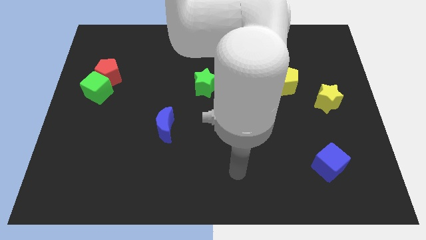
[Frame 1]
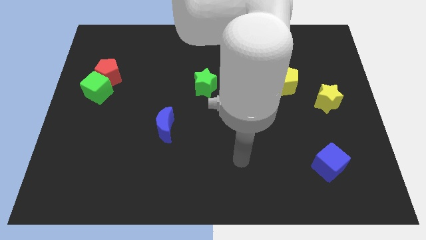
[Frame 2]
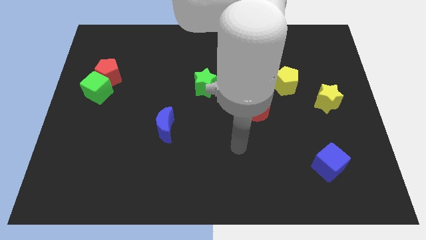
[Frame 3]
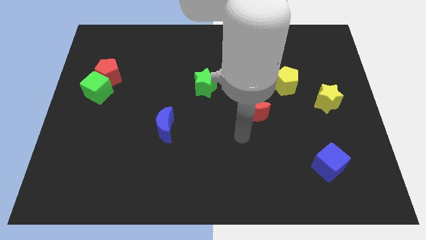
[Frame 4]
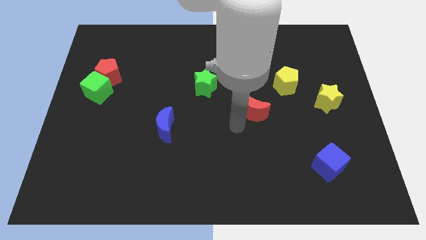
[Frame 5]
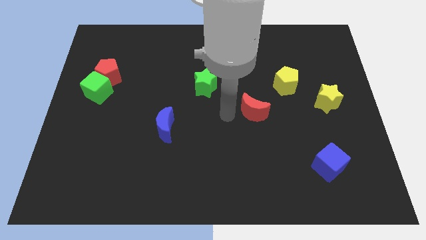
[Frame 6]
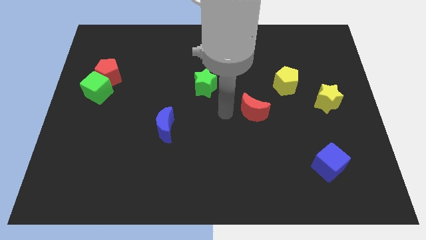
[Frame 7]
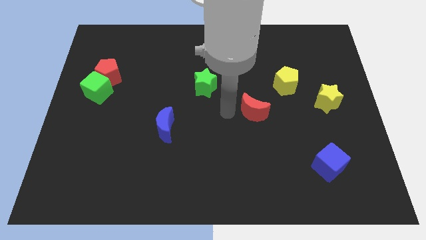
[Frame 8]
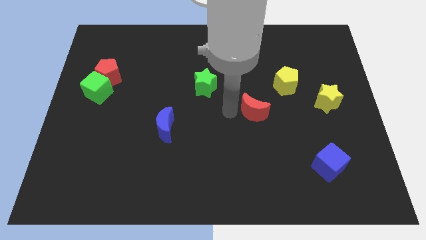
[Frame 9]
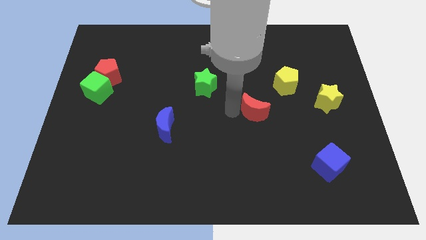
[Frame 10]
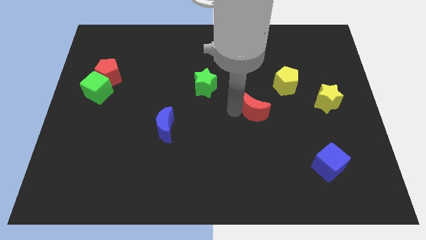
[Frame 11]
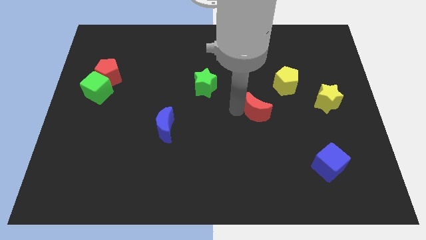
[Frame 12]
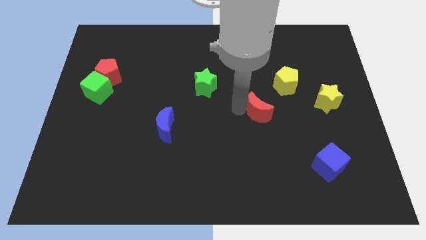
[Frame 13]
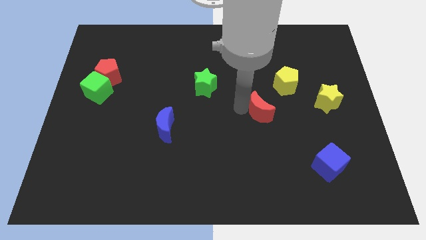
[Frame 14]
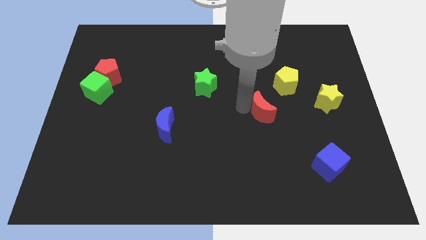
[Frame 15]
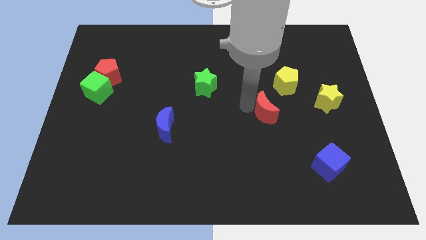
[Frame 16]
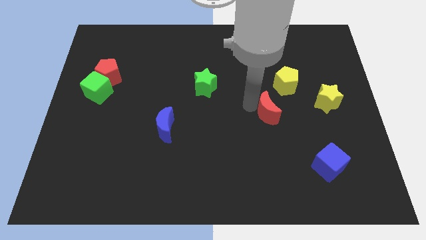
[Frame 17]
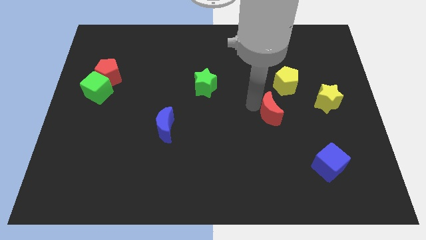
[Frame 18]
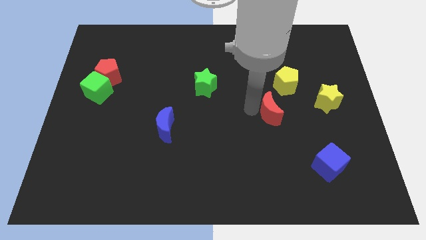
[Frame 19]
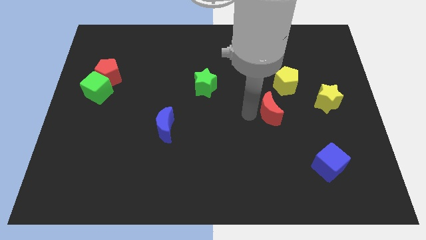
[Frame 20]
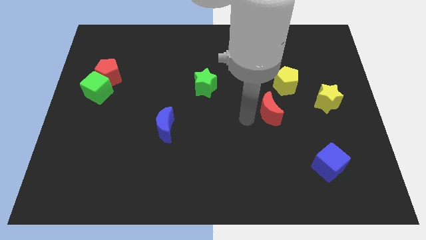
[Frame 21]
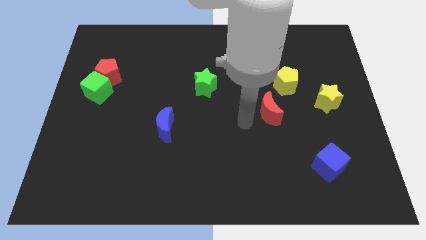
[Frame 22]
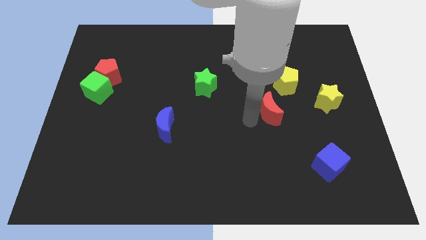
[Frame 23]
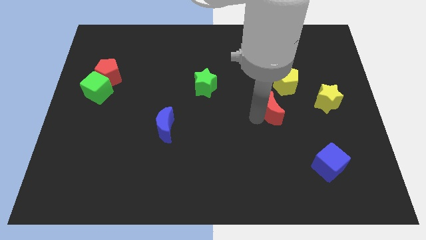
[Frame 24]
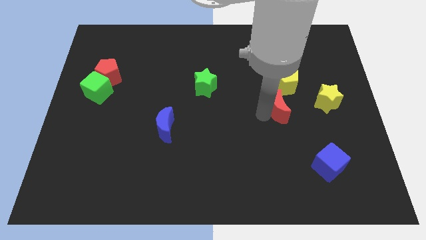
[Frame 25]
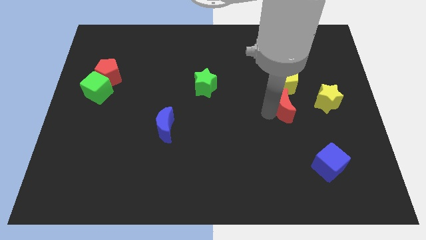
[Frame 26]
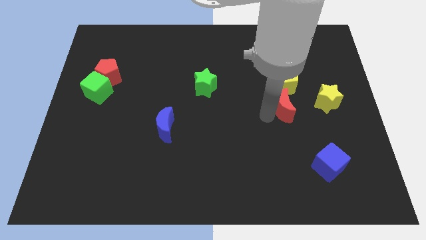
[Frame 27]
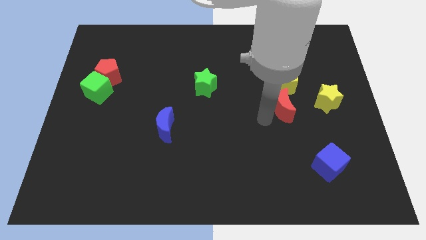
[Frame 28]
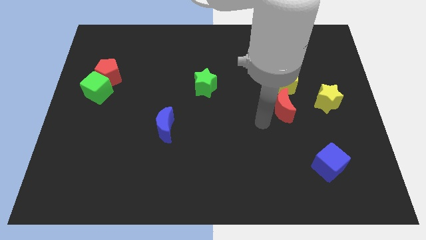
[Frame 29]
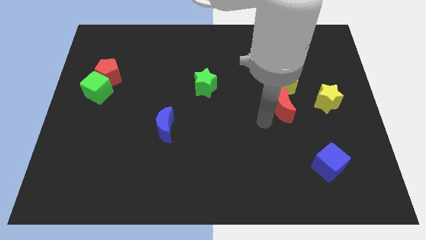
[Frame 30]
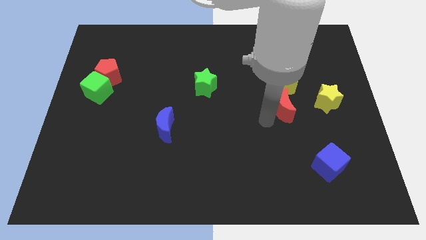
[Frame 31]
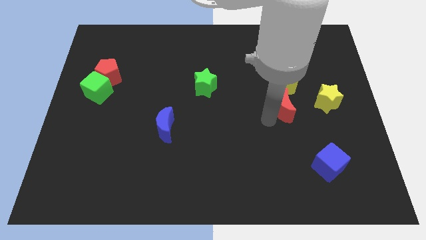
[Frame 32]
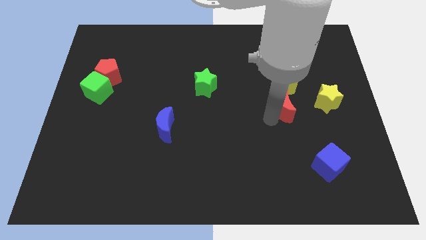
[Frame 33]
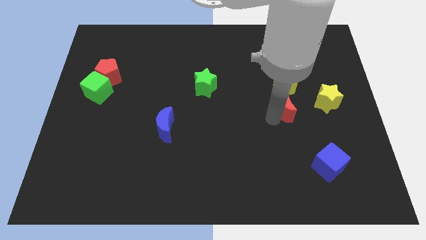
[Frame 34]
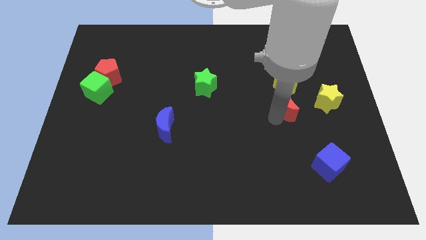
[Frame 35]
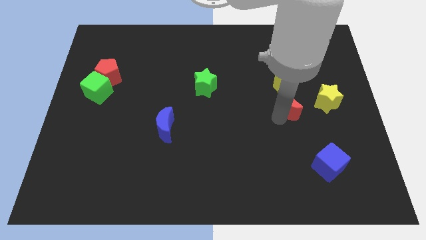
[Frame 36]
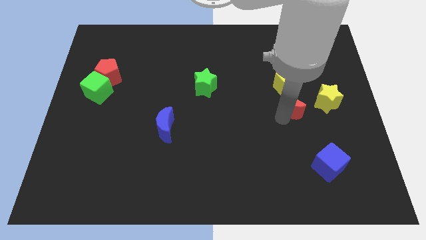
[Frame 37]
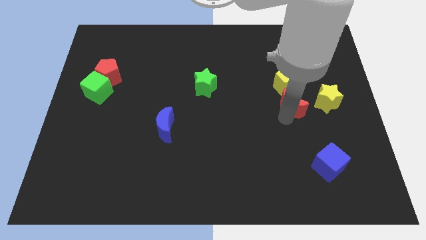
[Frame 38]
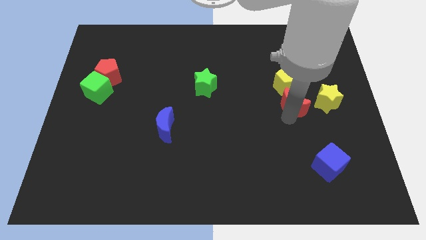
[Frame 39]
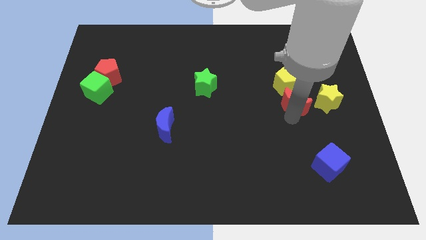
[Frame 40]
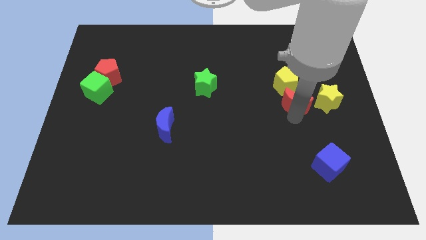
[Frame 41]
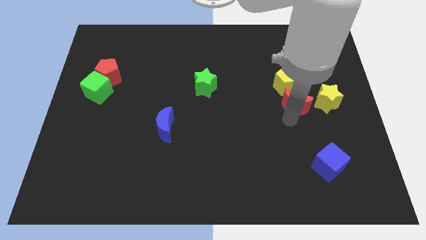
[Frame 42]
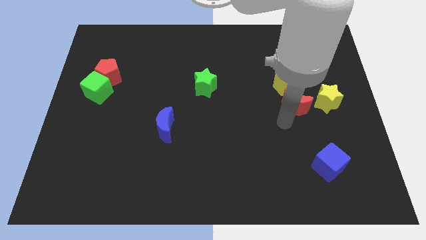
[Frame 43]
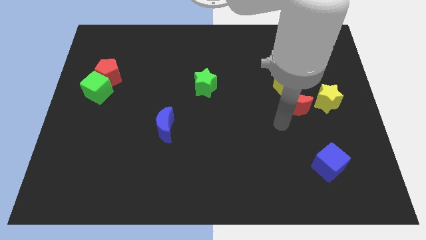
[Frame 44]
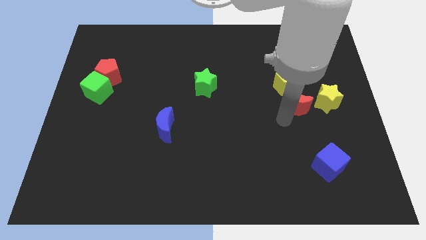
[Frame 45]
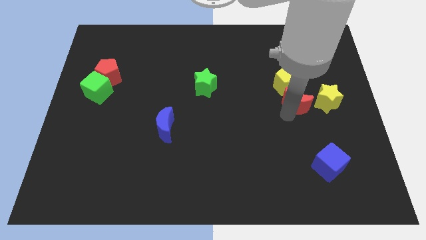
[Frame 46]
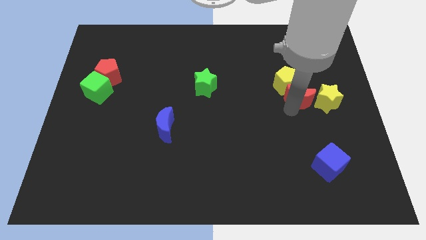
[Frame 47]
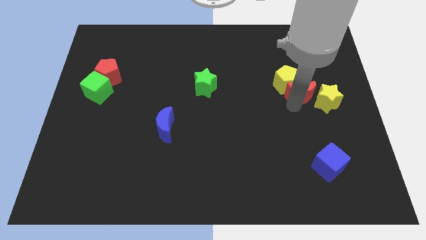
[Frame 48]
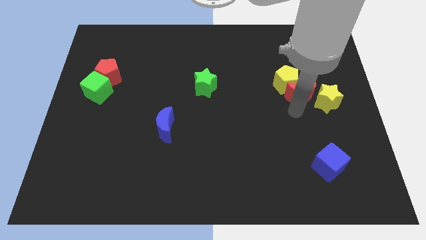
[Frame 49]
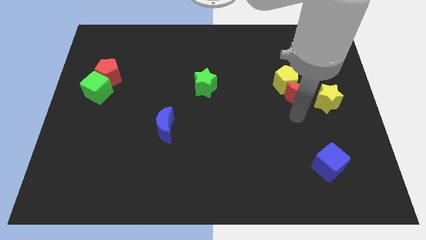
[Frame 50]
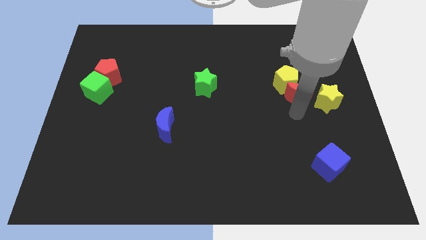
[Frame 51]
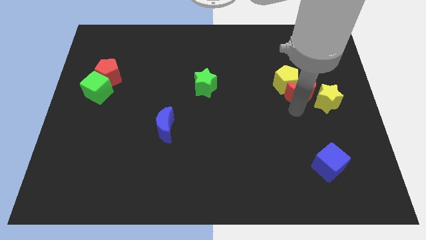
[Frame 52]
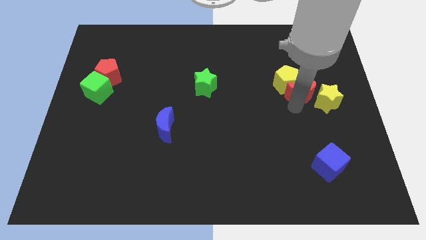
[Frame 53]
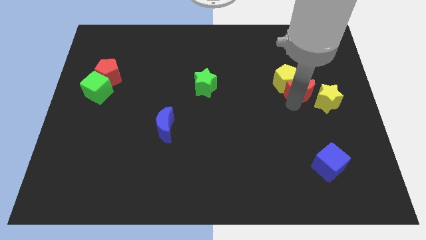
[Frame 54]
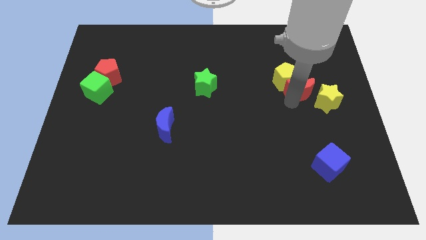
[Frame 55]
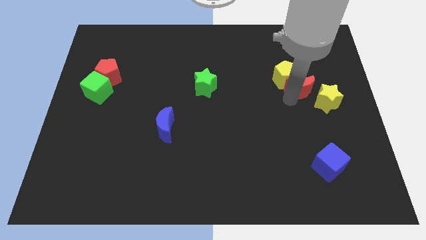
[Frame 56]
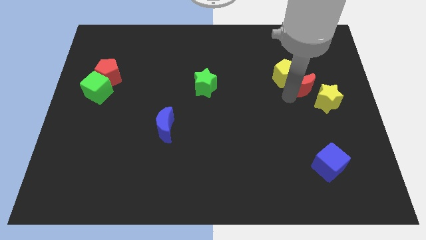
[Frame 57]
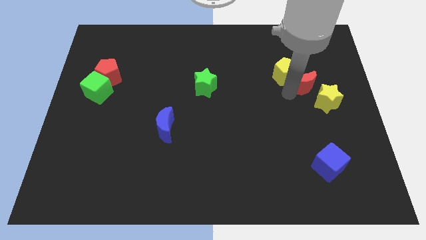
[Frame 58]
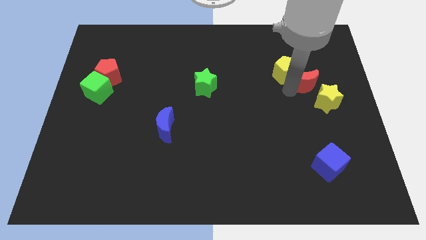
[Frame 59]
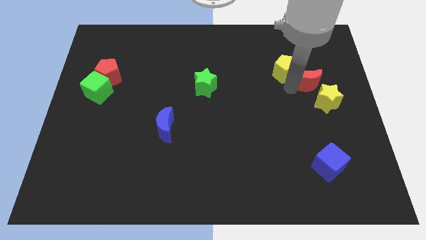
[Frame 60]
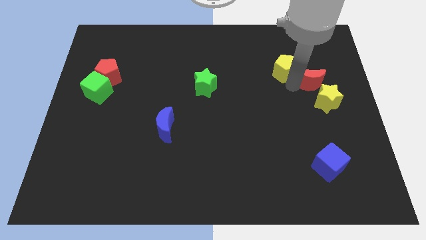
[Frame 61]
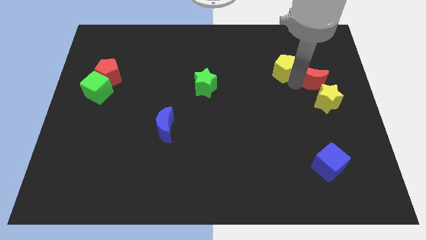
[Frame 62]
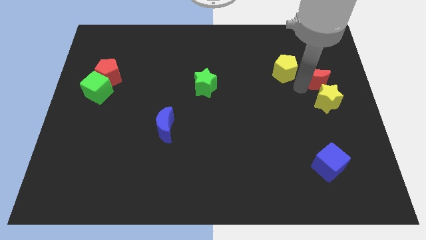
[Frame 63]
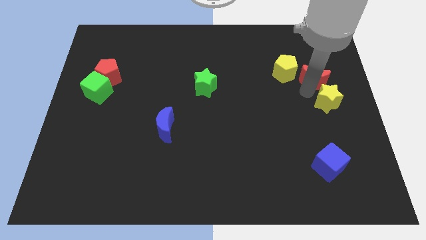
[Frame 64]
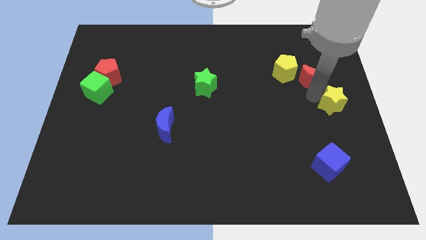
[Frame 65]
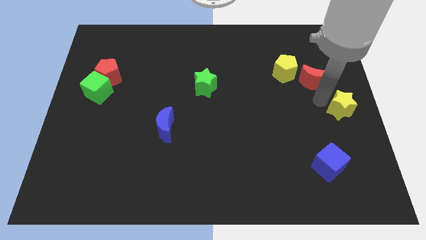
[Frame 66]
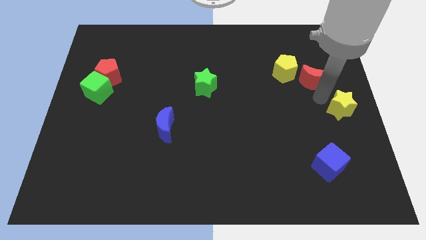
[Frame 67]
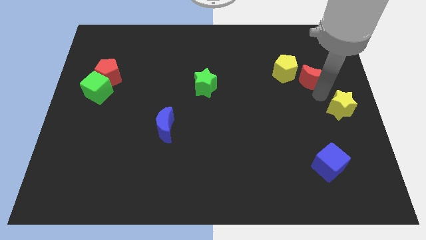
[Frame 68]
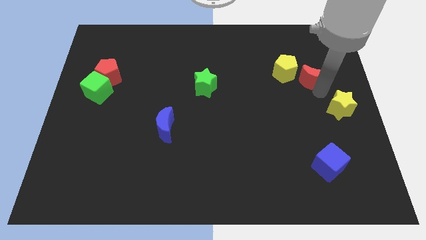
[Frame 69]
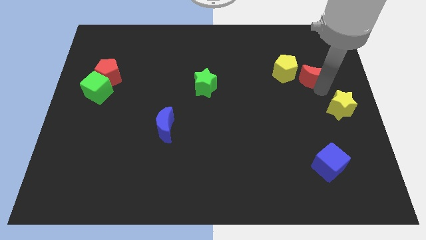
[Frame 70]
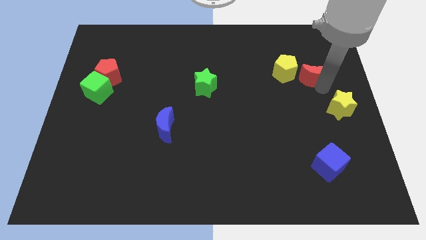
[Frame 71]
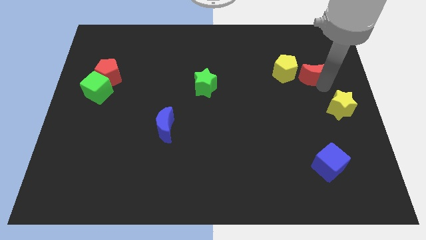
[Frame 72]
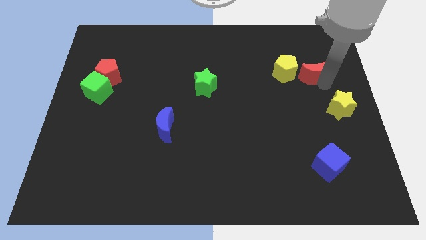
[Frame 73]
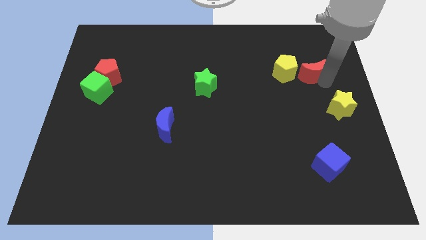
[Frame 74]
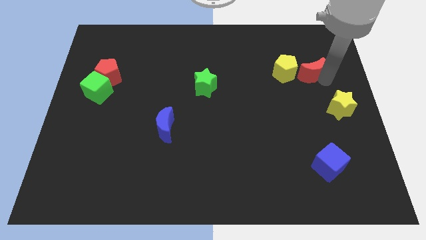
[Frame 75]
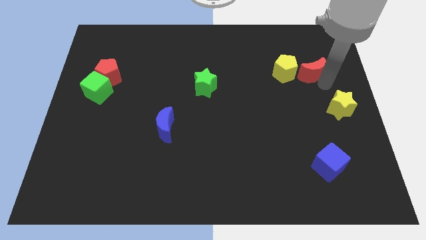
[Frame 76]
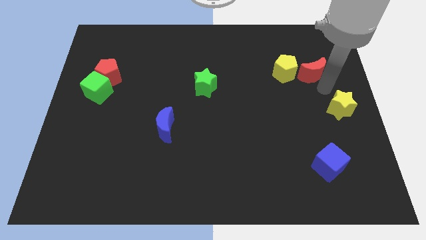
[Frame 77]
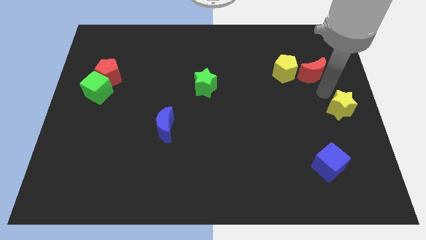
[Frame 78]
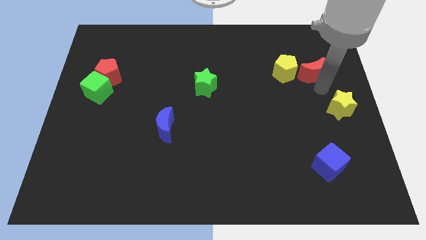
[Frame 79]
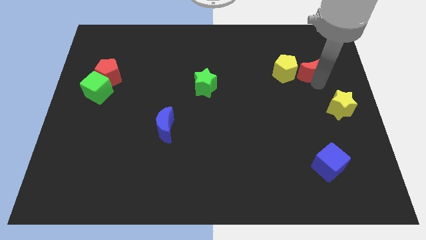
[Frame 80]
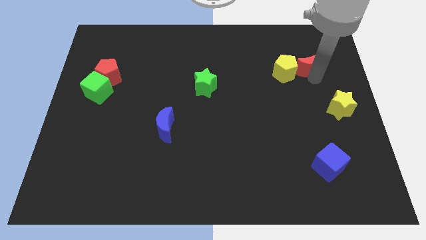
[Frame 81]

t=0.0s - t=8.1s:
move the red moon to the top right of the yellow pentagon
